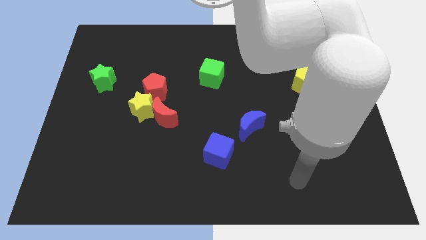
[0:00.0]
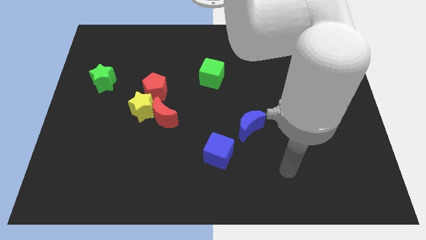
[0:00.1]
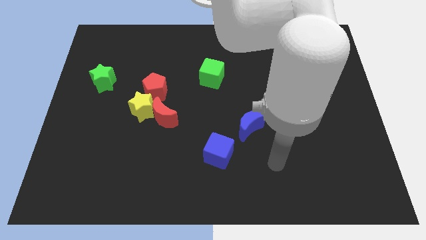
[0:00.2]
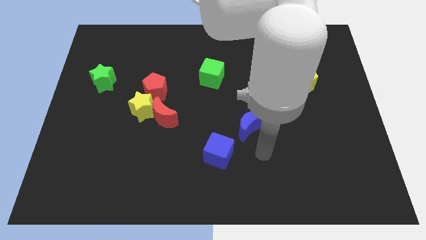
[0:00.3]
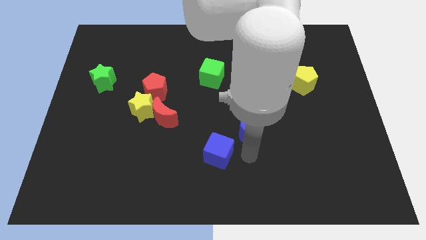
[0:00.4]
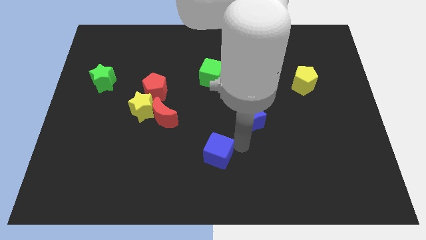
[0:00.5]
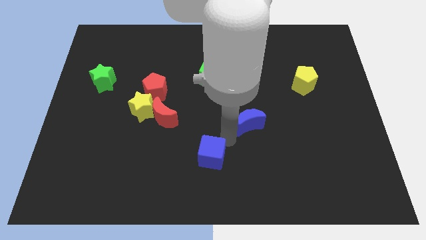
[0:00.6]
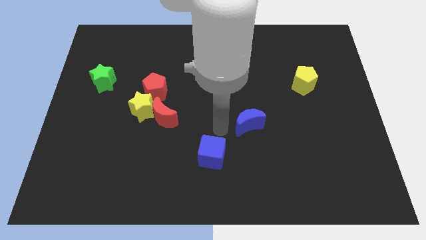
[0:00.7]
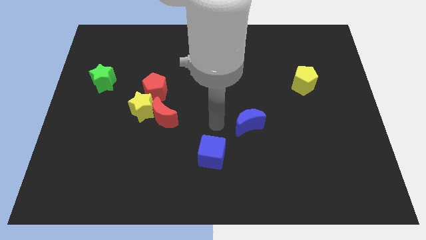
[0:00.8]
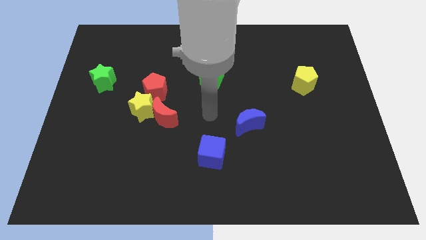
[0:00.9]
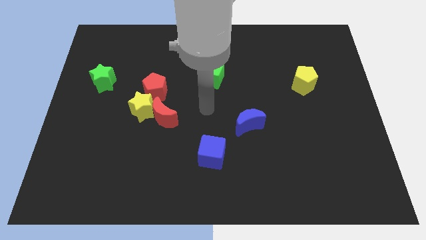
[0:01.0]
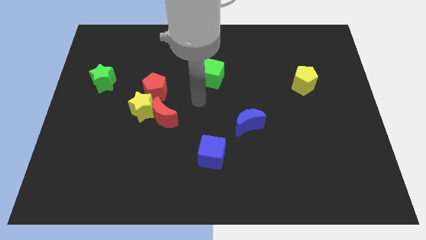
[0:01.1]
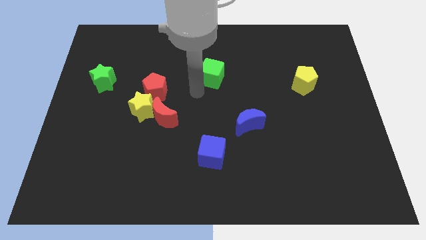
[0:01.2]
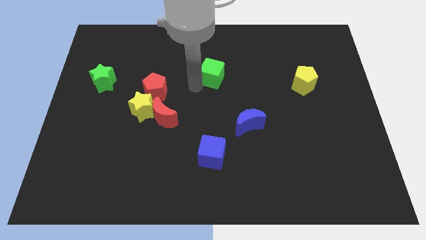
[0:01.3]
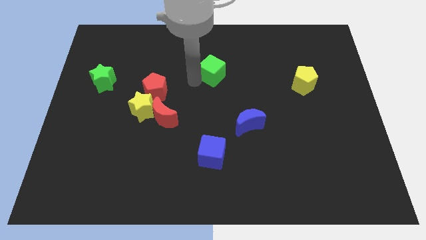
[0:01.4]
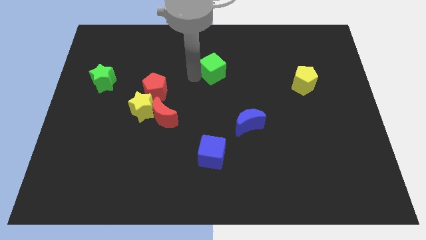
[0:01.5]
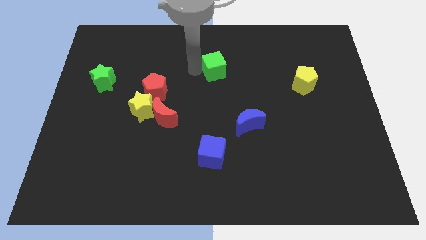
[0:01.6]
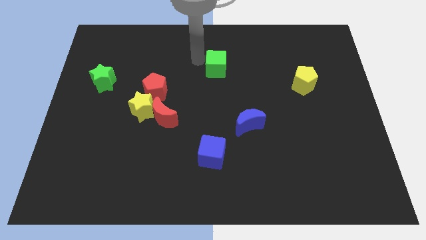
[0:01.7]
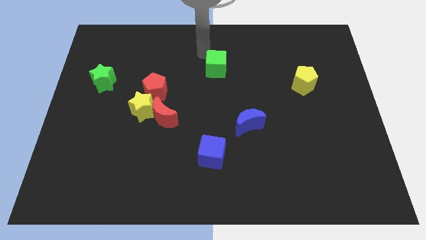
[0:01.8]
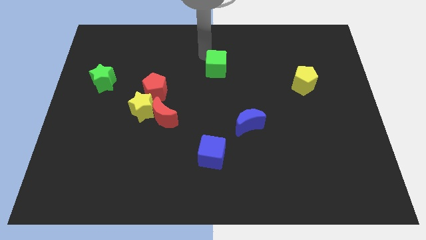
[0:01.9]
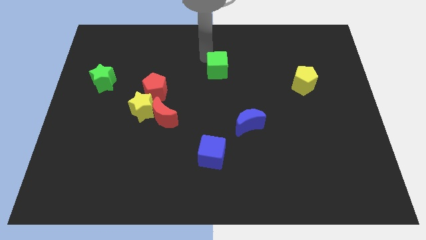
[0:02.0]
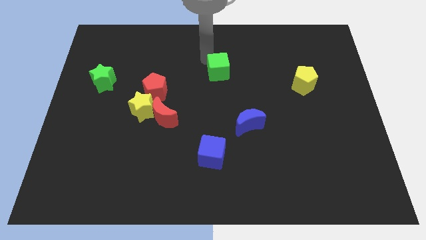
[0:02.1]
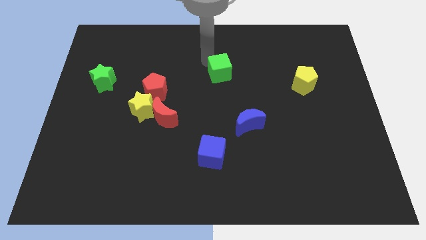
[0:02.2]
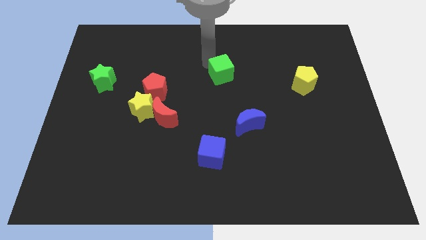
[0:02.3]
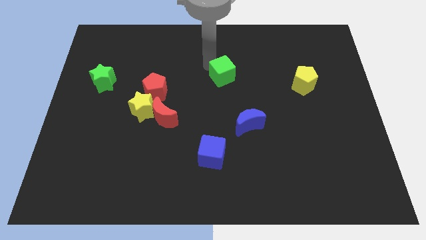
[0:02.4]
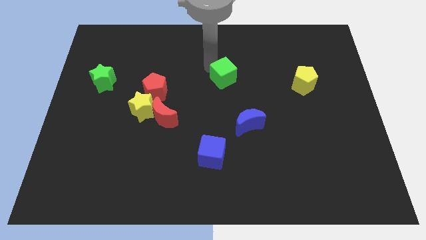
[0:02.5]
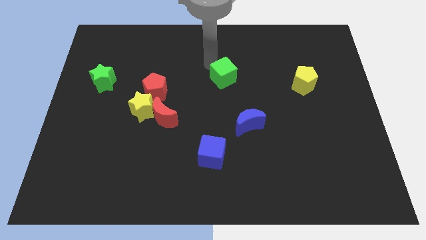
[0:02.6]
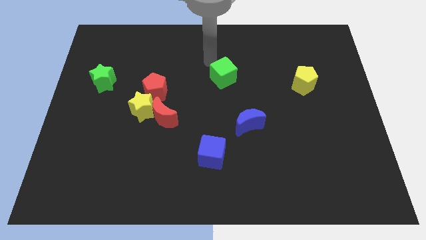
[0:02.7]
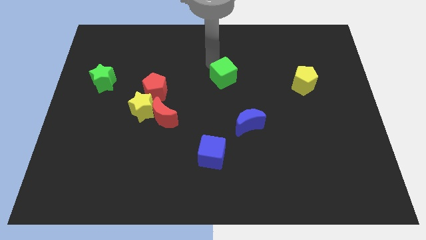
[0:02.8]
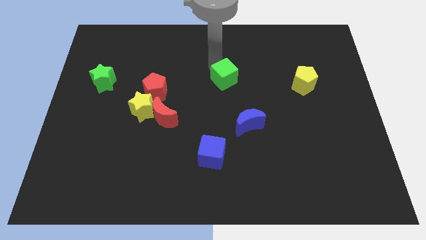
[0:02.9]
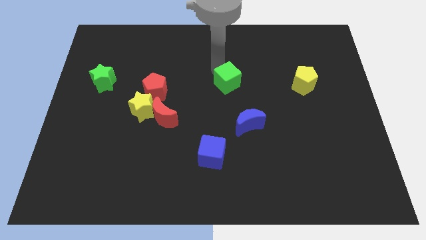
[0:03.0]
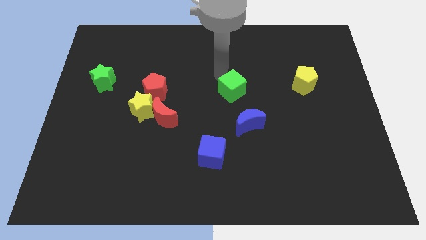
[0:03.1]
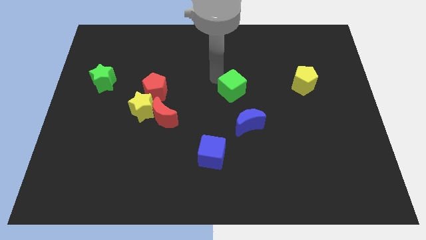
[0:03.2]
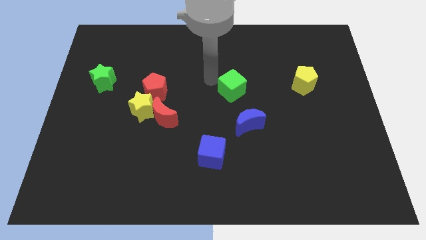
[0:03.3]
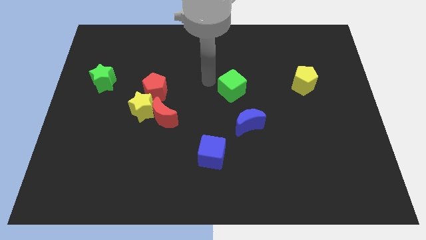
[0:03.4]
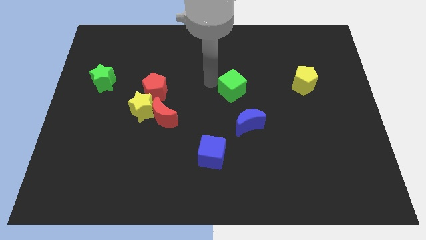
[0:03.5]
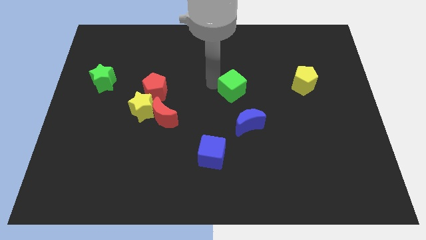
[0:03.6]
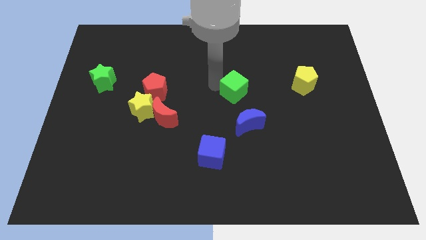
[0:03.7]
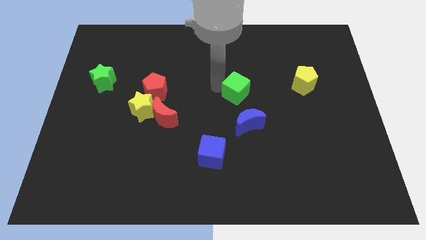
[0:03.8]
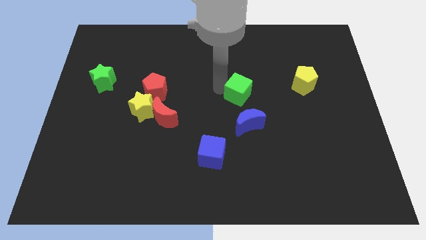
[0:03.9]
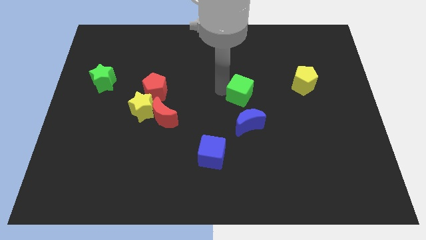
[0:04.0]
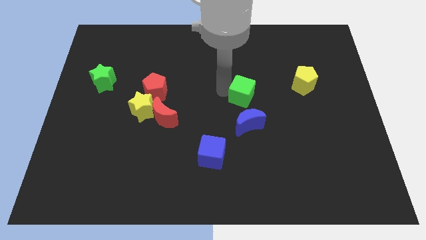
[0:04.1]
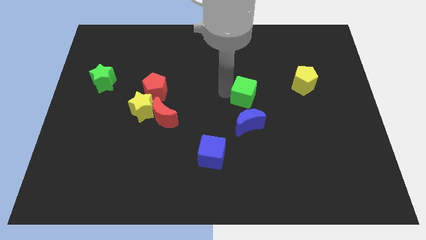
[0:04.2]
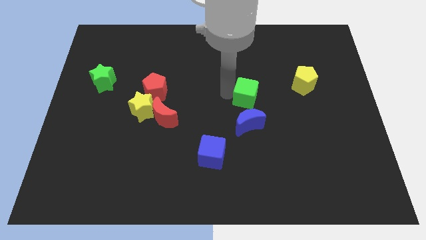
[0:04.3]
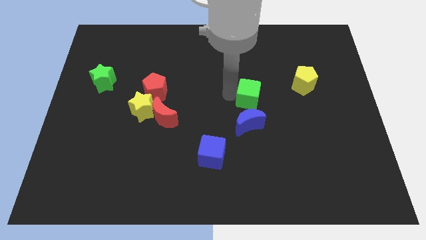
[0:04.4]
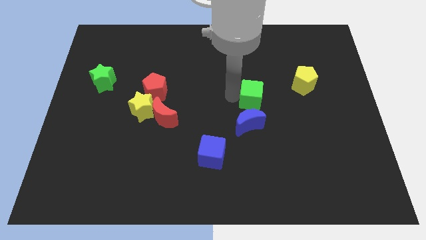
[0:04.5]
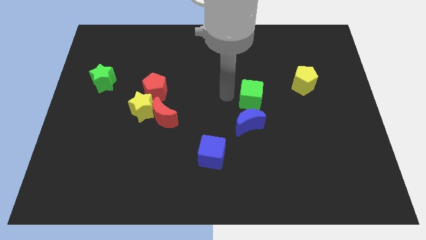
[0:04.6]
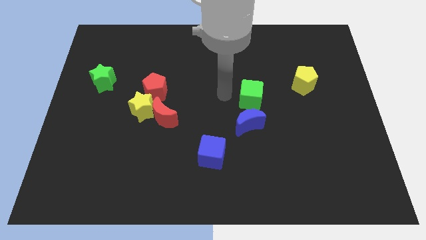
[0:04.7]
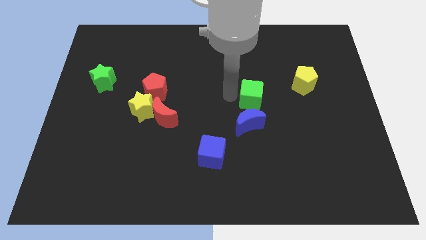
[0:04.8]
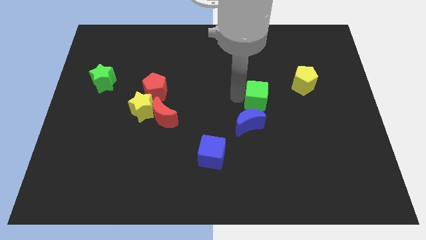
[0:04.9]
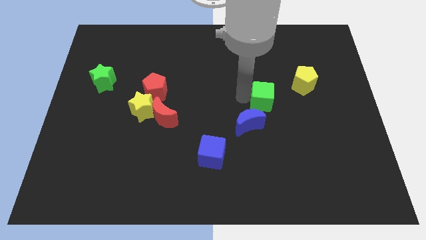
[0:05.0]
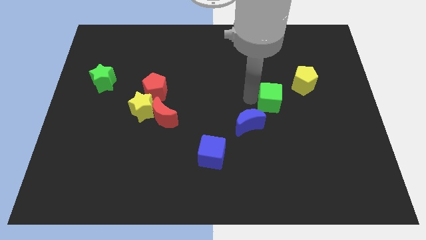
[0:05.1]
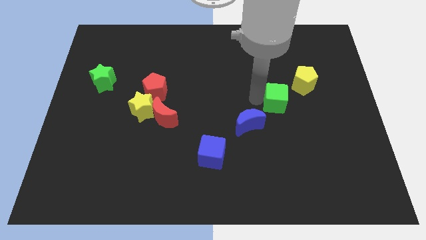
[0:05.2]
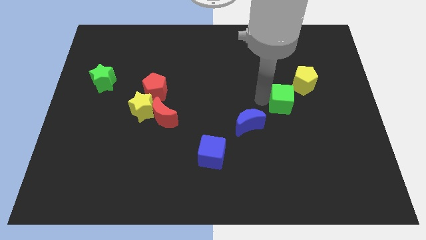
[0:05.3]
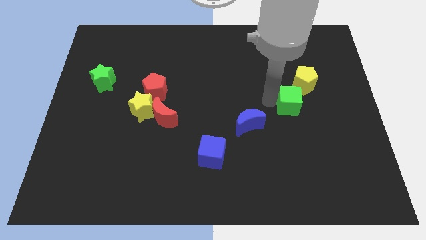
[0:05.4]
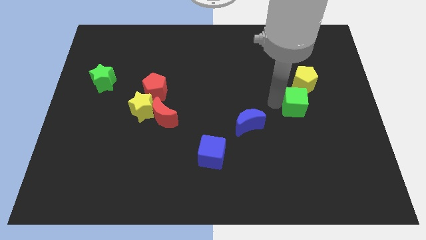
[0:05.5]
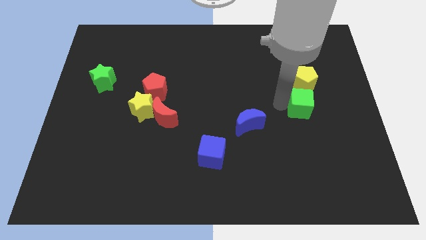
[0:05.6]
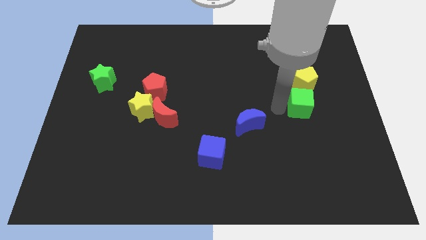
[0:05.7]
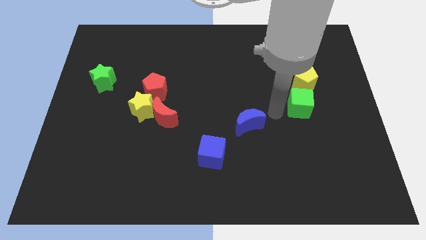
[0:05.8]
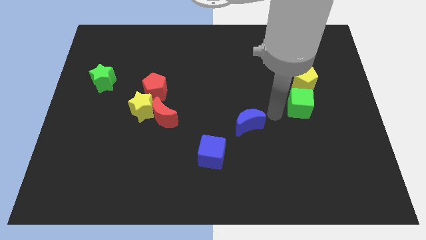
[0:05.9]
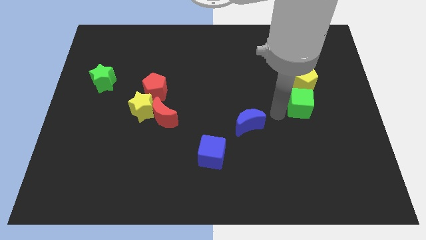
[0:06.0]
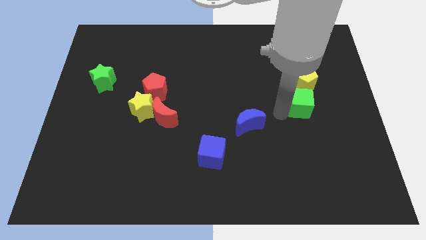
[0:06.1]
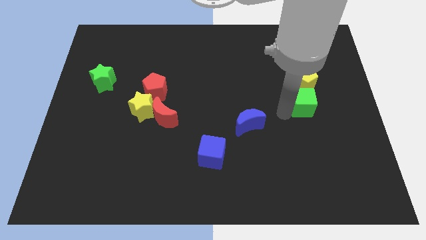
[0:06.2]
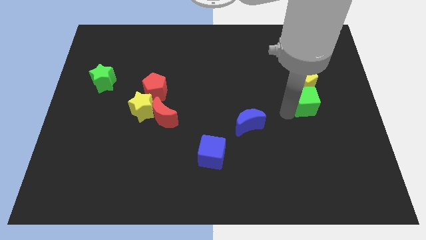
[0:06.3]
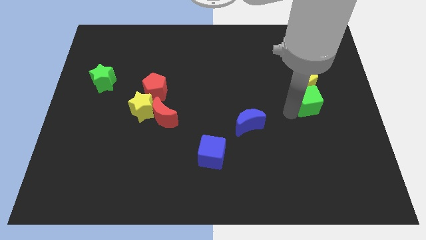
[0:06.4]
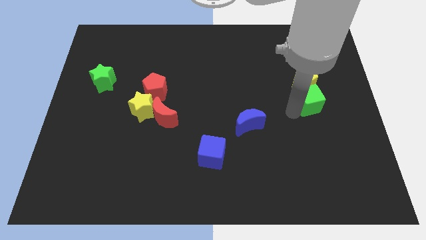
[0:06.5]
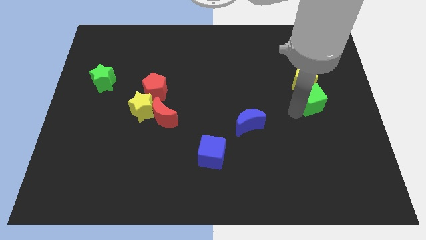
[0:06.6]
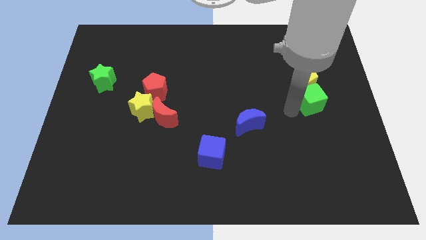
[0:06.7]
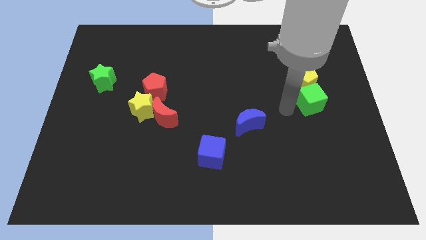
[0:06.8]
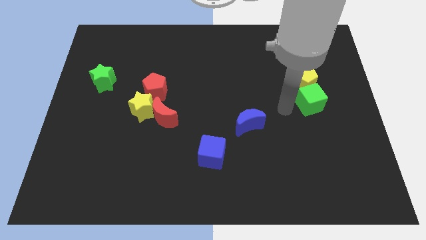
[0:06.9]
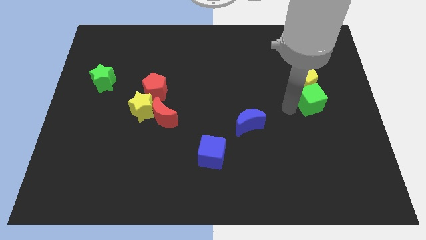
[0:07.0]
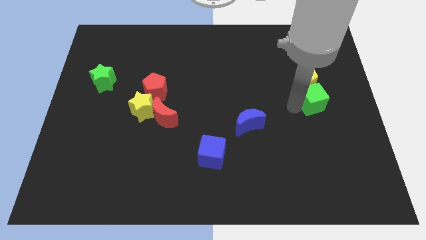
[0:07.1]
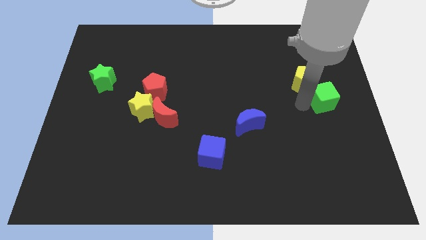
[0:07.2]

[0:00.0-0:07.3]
put the green cube to the center right
